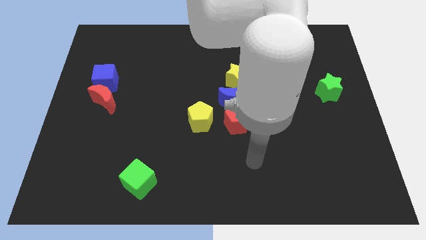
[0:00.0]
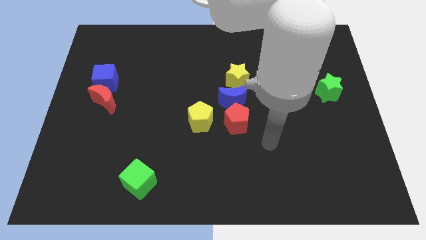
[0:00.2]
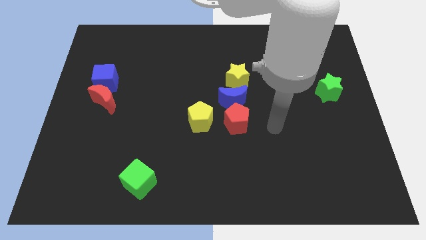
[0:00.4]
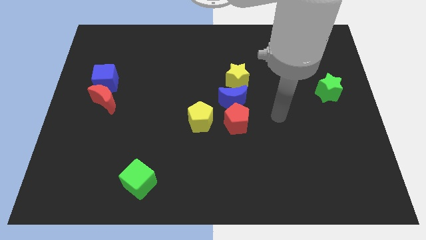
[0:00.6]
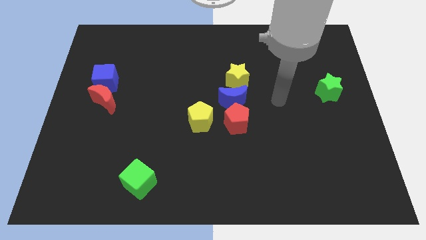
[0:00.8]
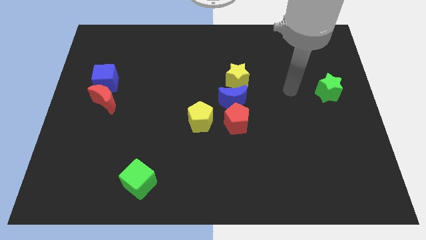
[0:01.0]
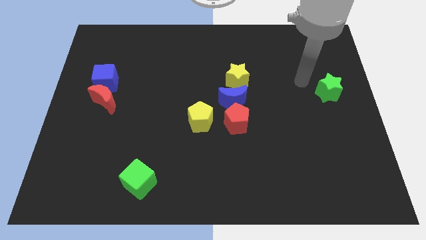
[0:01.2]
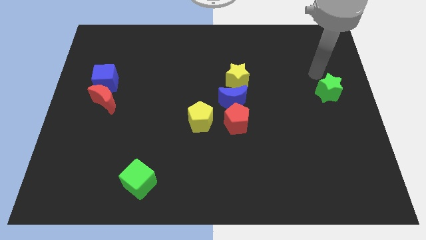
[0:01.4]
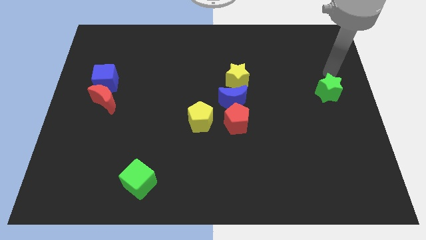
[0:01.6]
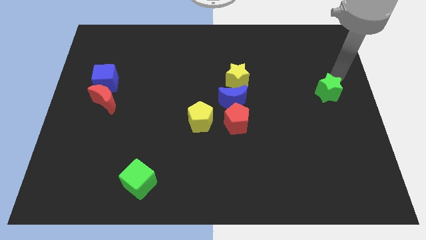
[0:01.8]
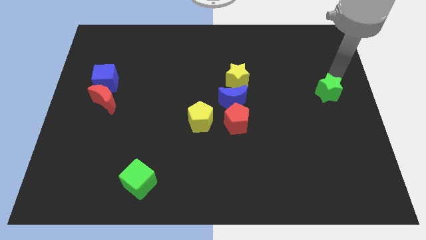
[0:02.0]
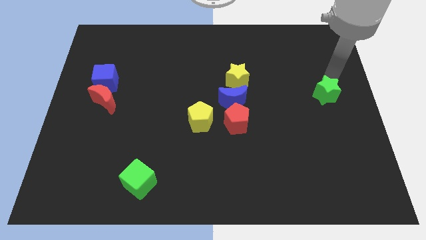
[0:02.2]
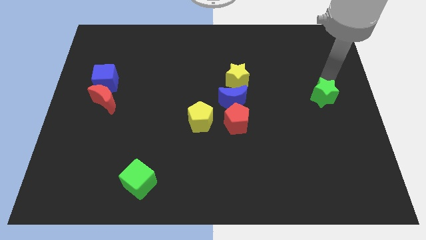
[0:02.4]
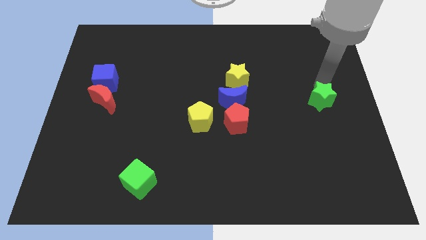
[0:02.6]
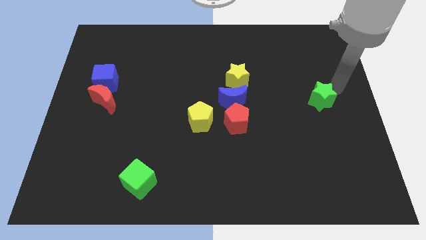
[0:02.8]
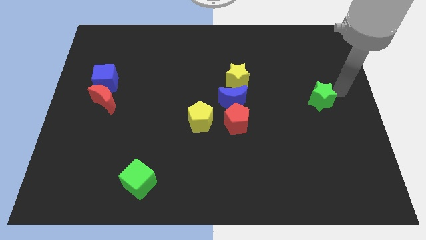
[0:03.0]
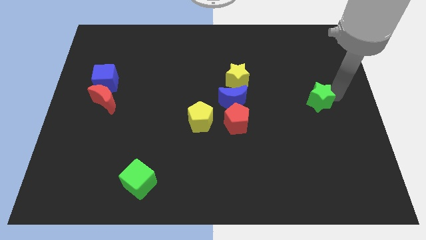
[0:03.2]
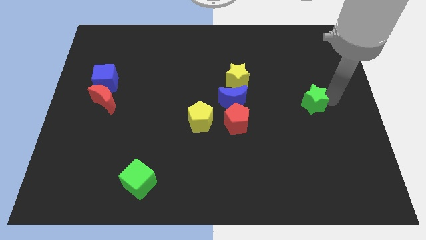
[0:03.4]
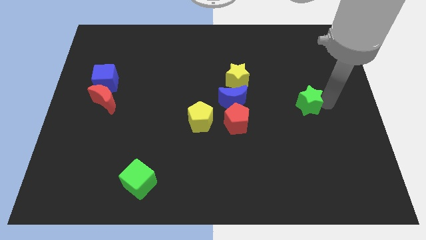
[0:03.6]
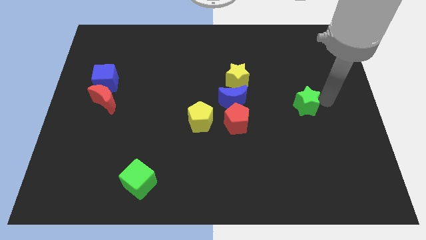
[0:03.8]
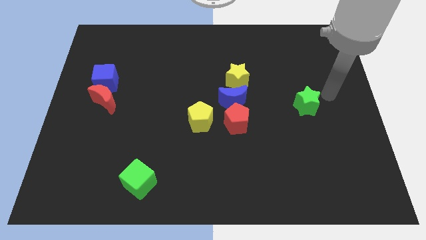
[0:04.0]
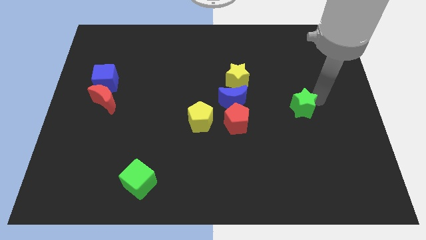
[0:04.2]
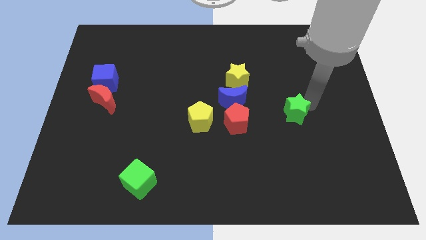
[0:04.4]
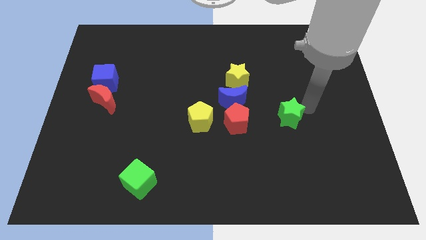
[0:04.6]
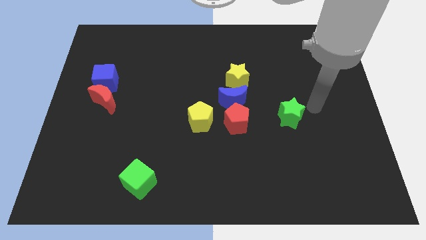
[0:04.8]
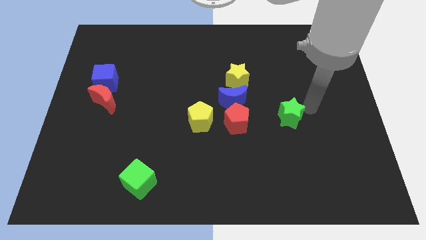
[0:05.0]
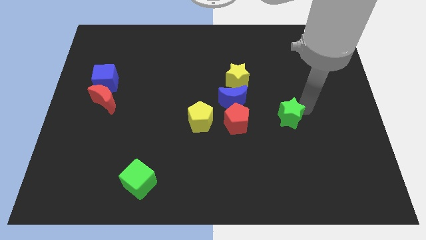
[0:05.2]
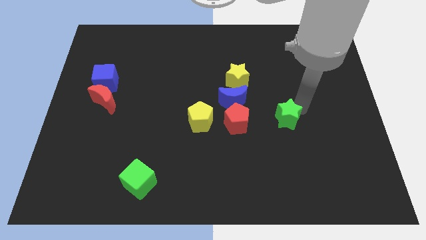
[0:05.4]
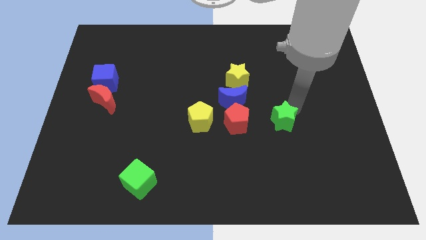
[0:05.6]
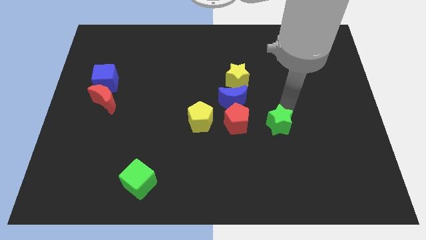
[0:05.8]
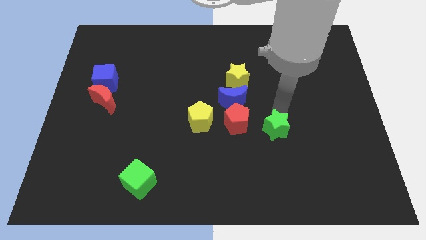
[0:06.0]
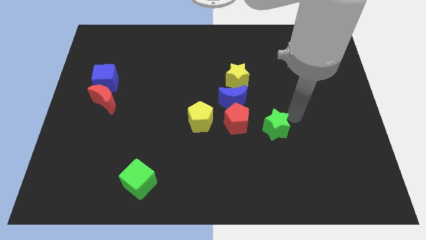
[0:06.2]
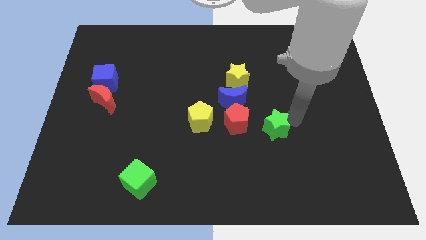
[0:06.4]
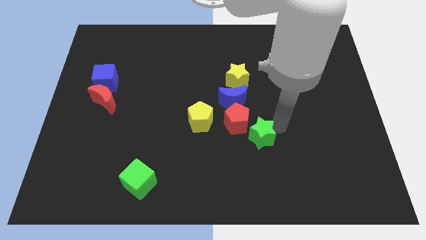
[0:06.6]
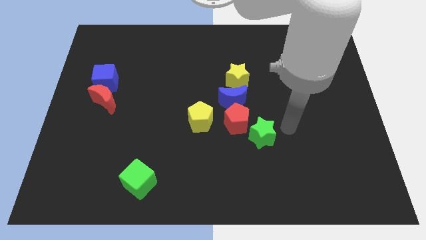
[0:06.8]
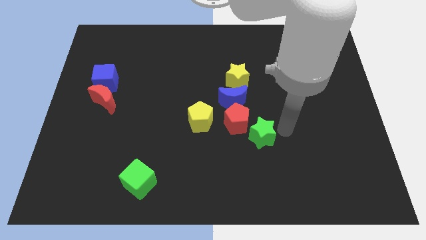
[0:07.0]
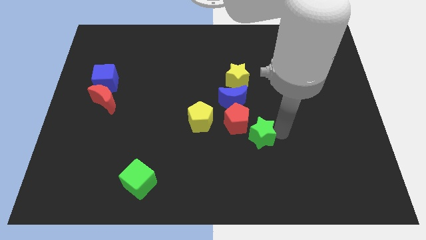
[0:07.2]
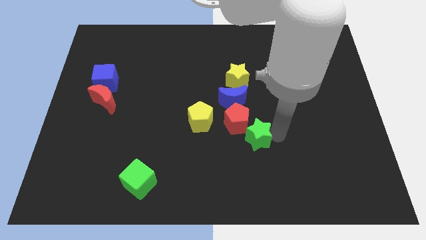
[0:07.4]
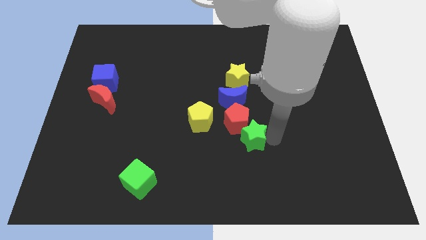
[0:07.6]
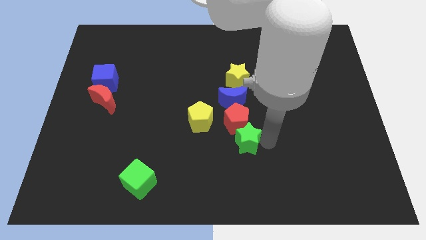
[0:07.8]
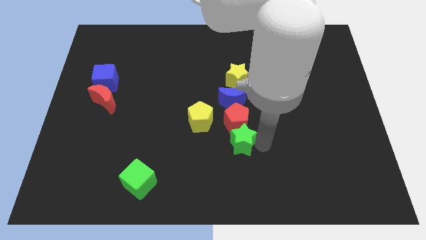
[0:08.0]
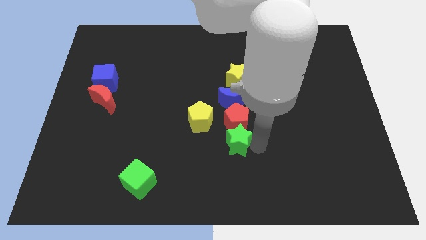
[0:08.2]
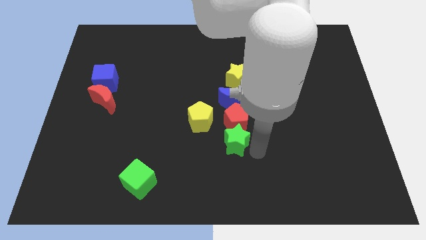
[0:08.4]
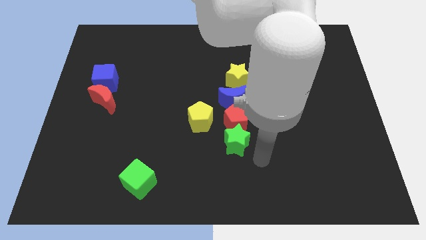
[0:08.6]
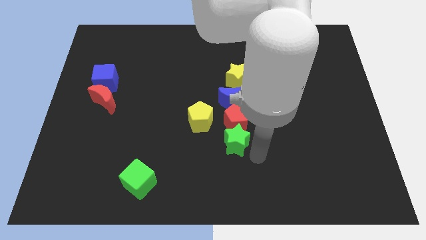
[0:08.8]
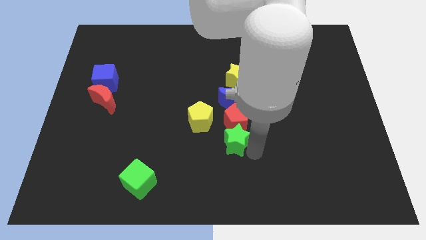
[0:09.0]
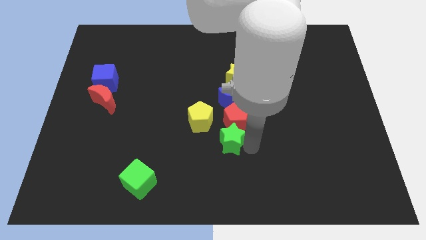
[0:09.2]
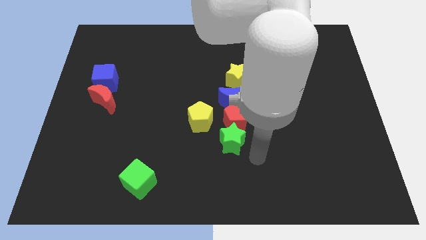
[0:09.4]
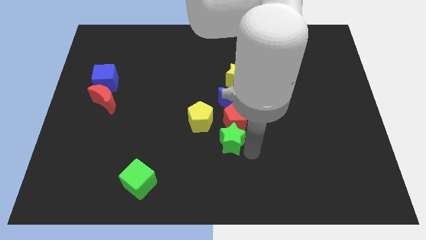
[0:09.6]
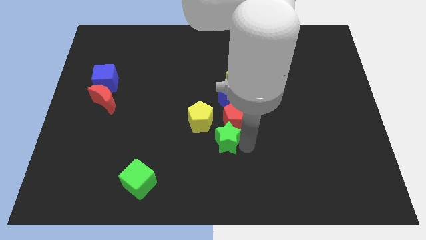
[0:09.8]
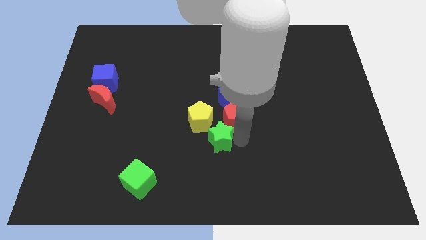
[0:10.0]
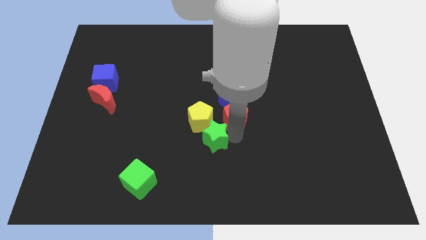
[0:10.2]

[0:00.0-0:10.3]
put the green star towards the yellow pentagon

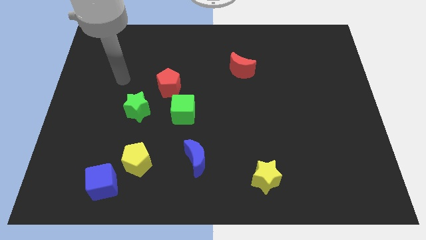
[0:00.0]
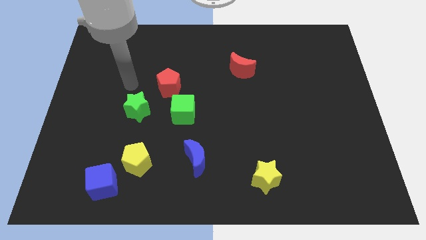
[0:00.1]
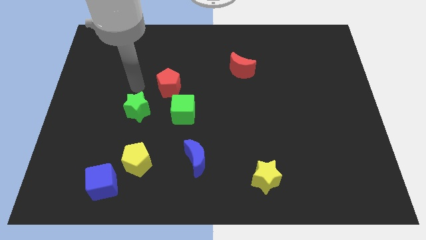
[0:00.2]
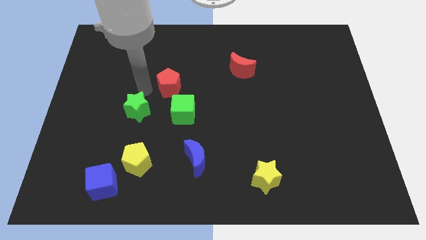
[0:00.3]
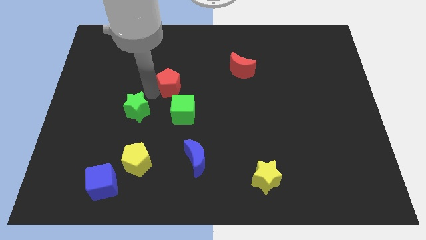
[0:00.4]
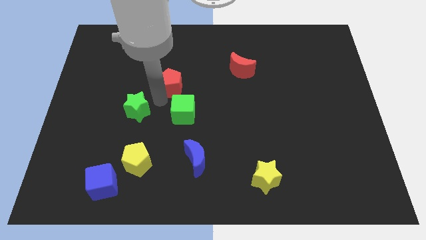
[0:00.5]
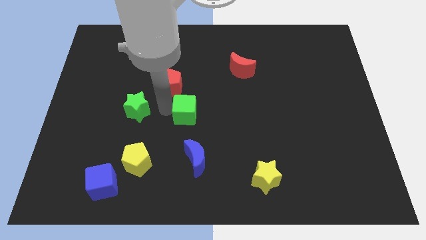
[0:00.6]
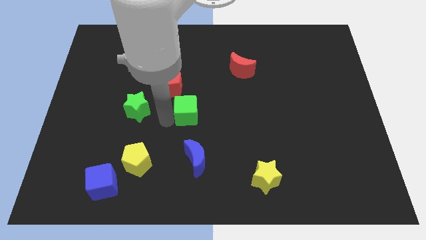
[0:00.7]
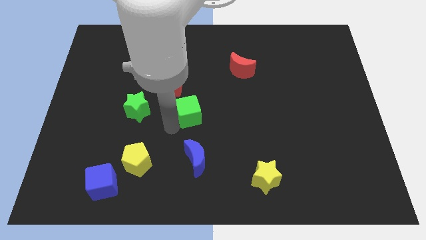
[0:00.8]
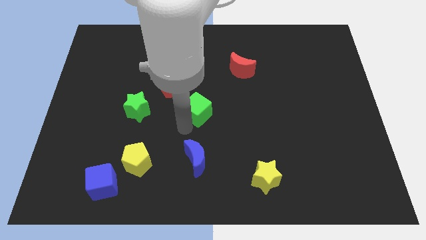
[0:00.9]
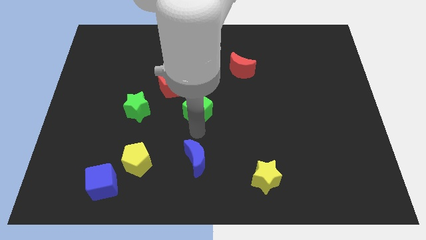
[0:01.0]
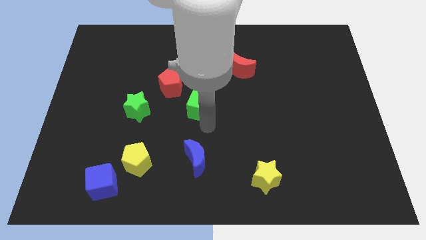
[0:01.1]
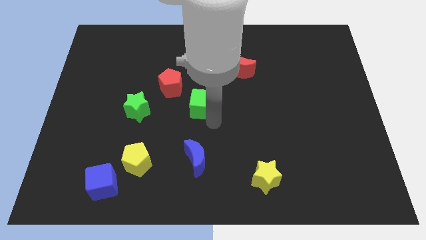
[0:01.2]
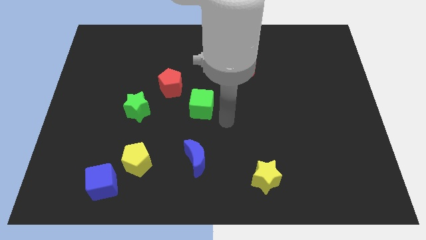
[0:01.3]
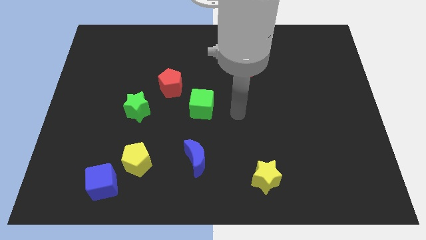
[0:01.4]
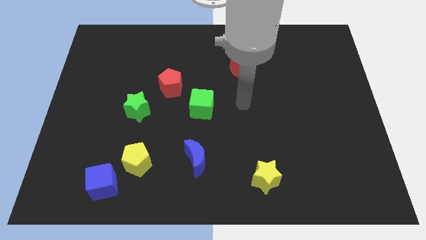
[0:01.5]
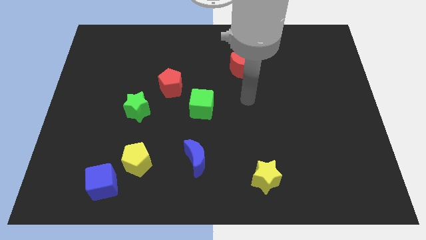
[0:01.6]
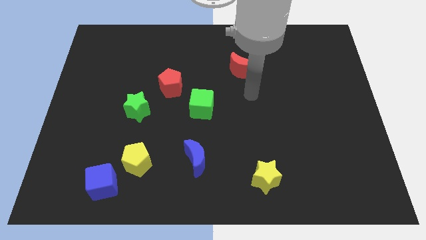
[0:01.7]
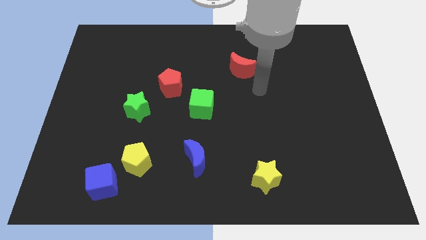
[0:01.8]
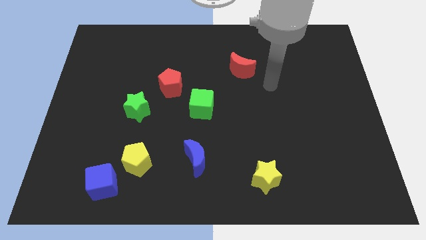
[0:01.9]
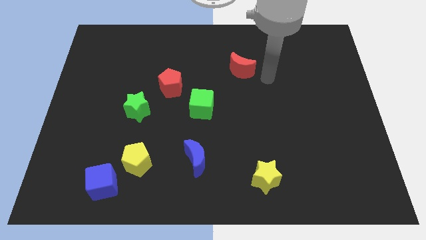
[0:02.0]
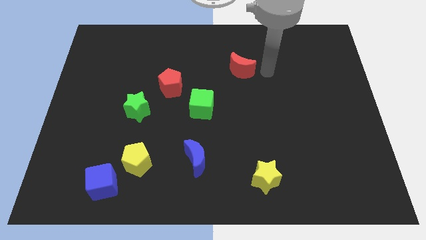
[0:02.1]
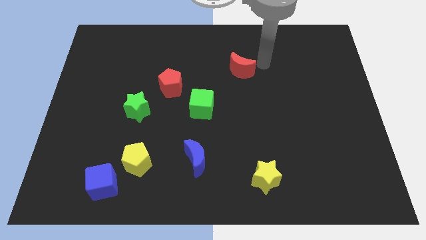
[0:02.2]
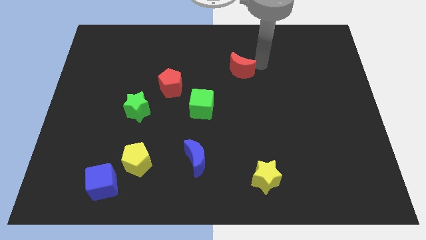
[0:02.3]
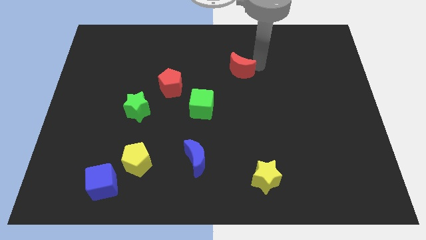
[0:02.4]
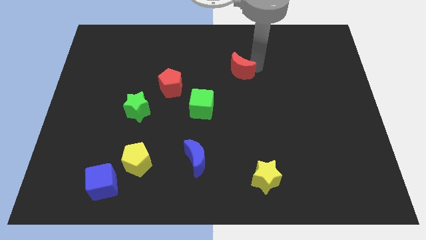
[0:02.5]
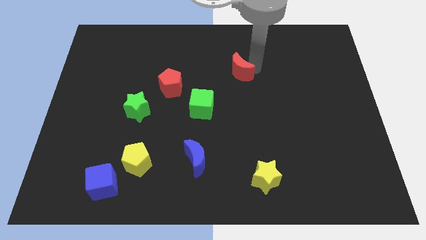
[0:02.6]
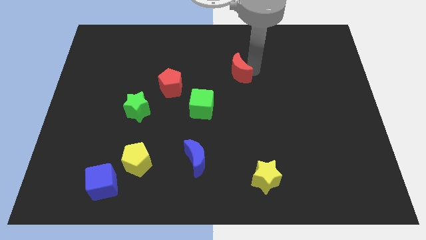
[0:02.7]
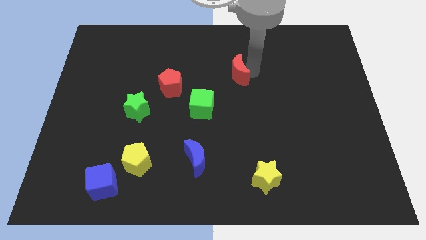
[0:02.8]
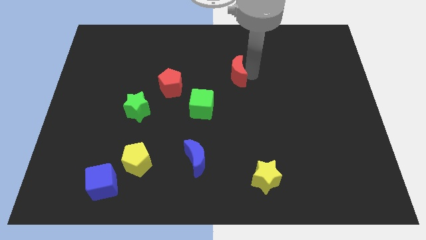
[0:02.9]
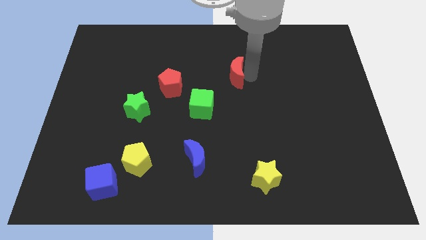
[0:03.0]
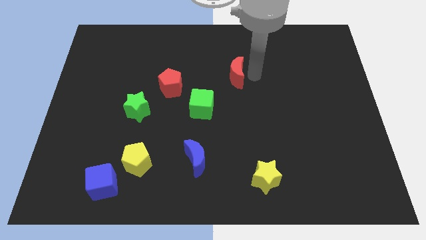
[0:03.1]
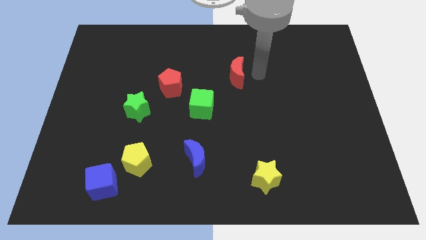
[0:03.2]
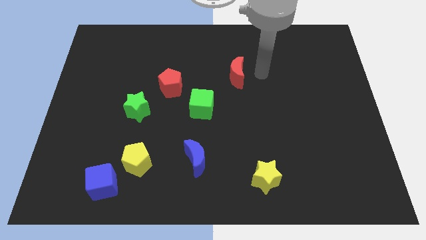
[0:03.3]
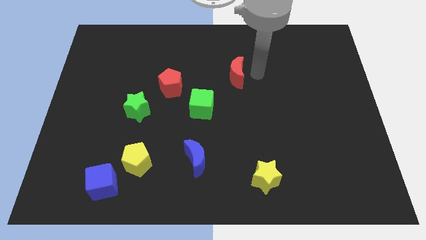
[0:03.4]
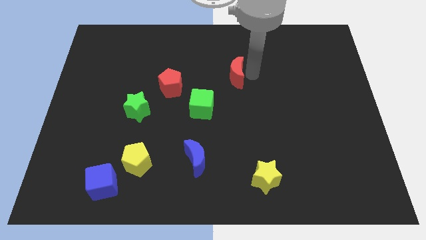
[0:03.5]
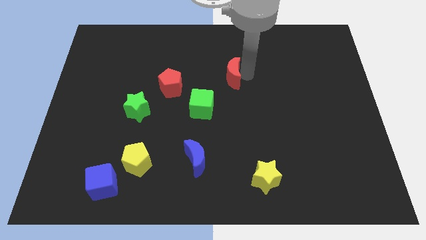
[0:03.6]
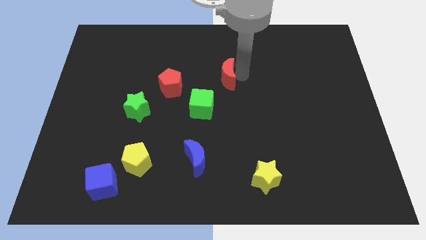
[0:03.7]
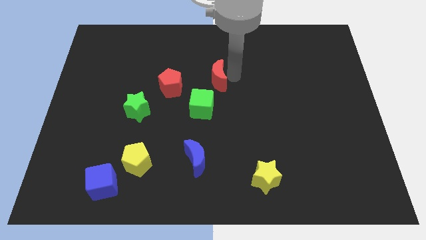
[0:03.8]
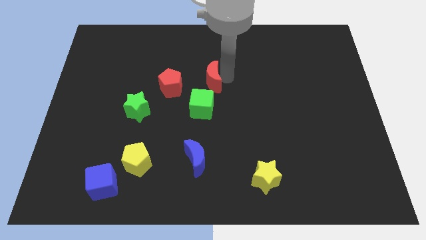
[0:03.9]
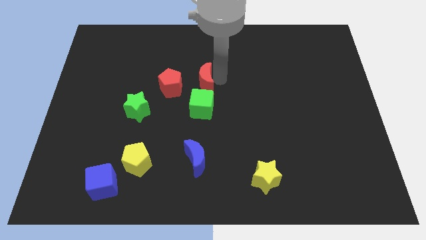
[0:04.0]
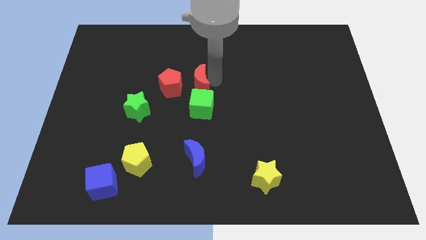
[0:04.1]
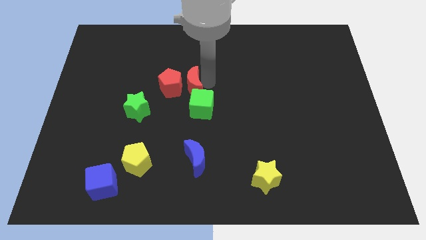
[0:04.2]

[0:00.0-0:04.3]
slide the red moon to the red pentagon
